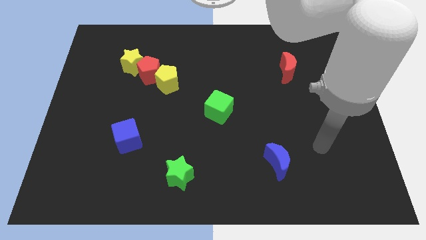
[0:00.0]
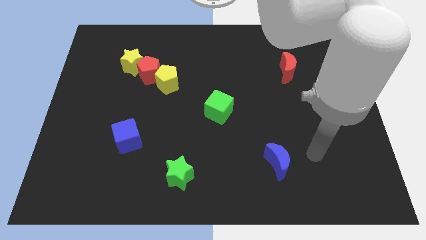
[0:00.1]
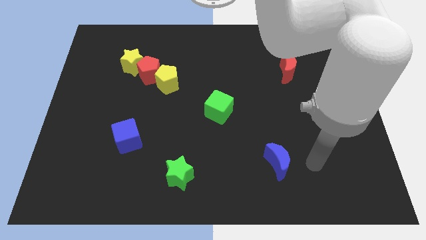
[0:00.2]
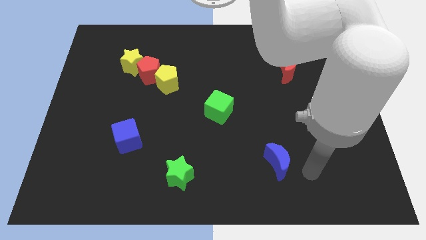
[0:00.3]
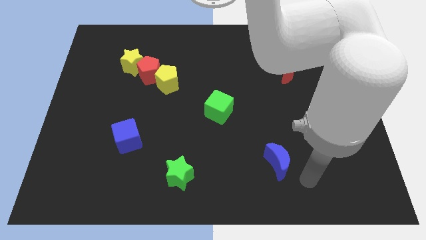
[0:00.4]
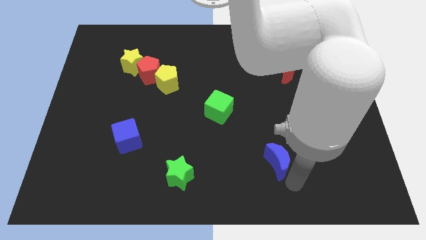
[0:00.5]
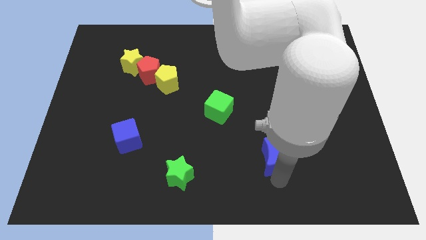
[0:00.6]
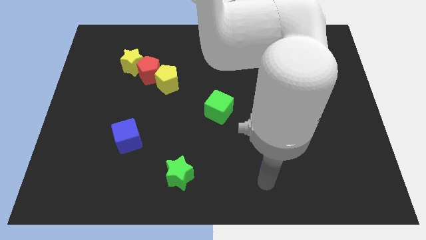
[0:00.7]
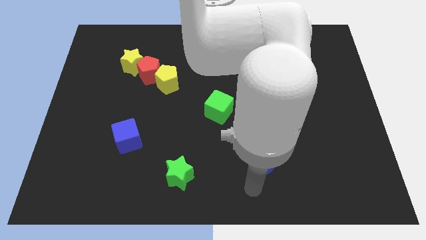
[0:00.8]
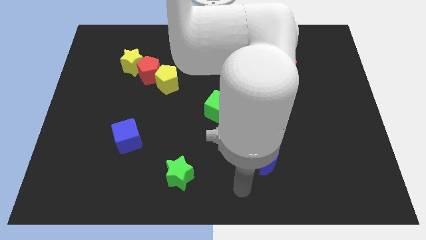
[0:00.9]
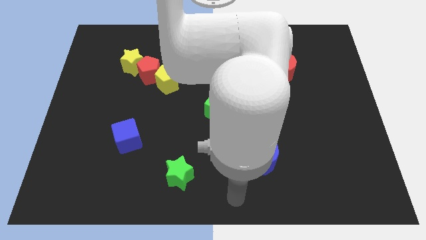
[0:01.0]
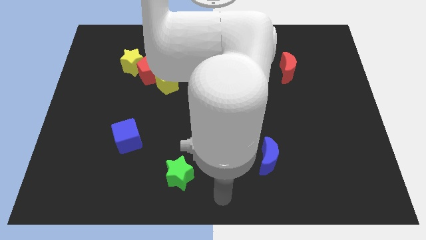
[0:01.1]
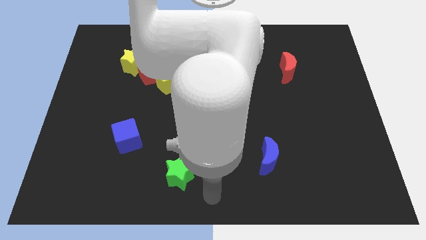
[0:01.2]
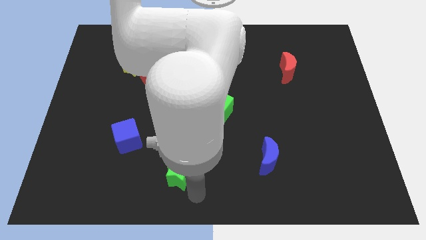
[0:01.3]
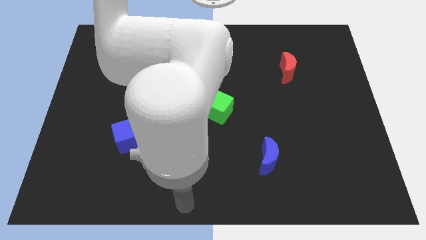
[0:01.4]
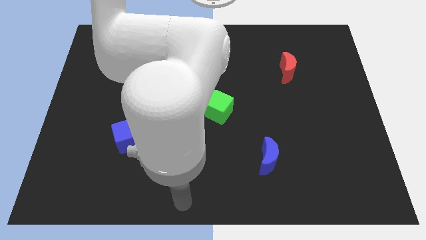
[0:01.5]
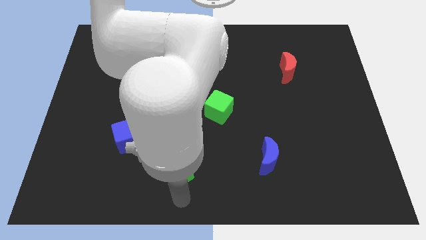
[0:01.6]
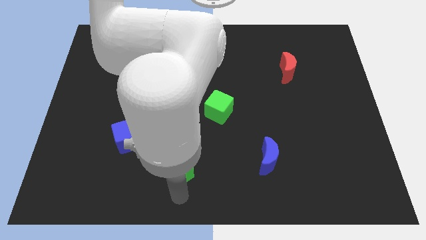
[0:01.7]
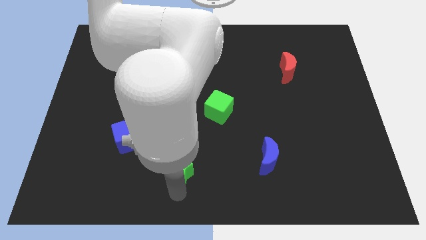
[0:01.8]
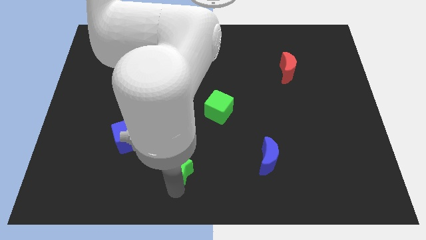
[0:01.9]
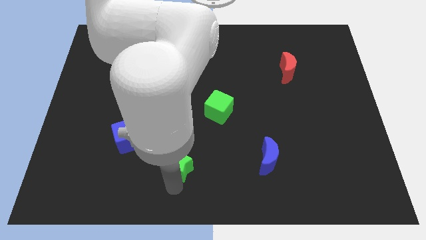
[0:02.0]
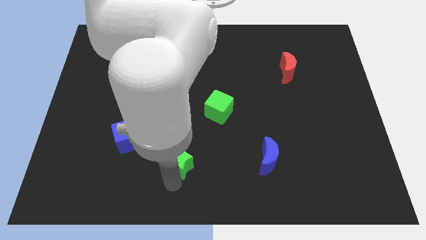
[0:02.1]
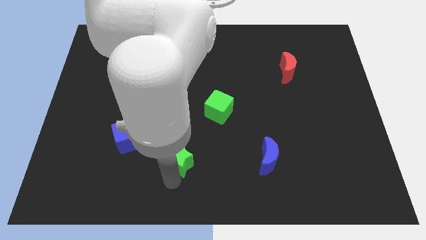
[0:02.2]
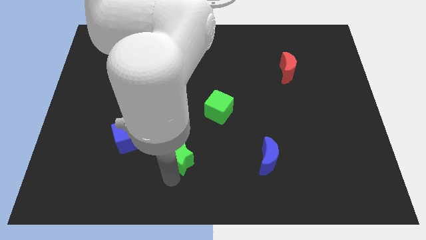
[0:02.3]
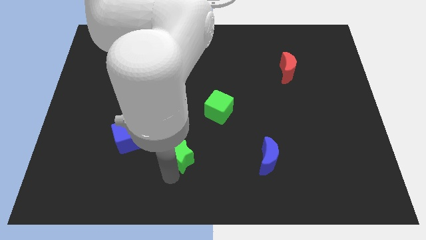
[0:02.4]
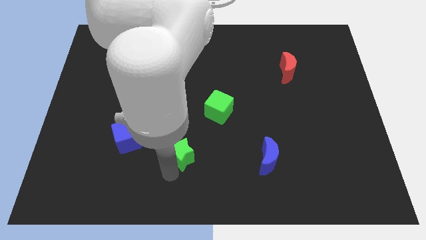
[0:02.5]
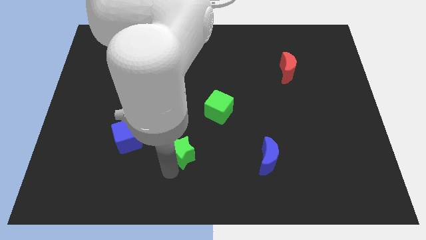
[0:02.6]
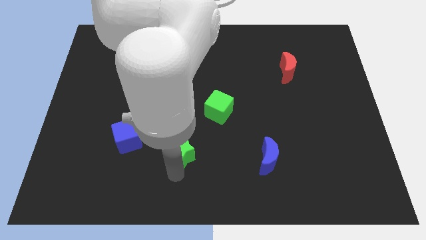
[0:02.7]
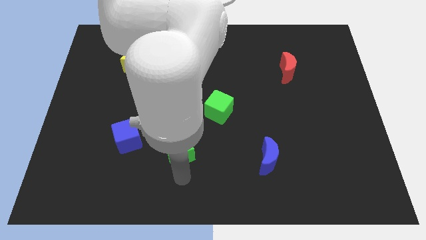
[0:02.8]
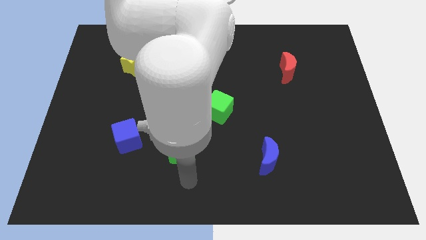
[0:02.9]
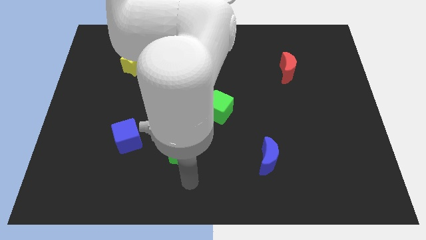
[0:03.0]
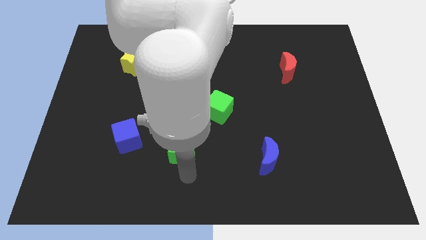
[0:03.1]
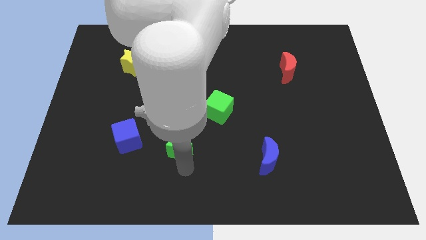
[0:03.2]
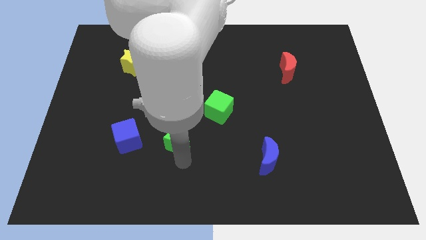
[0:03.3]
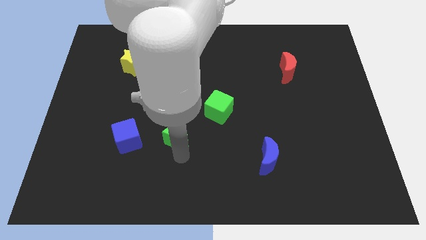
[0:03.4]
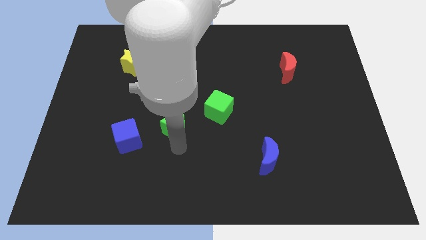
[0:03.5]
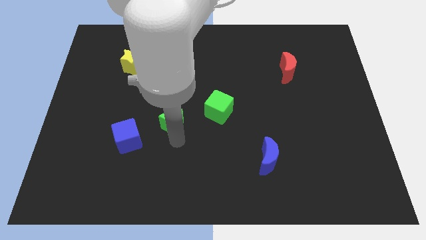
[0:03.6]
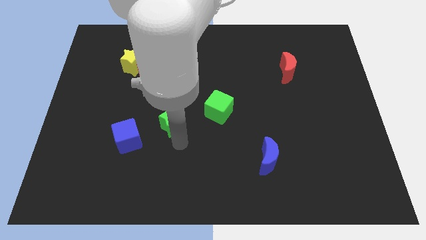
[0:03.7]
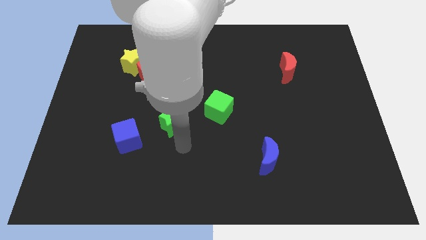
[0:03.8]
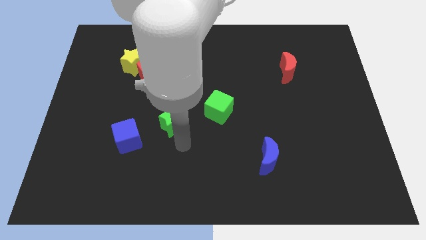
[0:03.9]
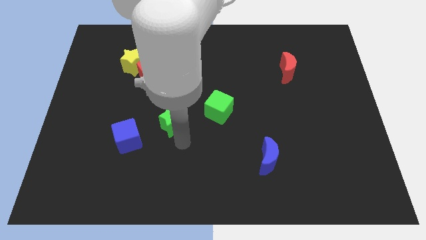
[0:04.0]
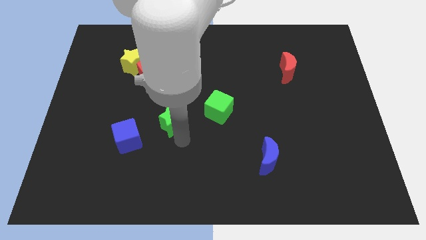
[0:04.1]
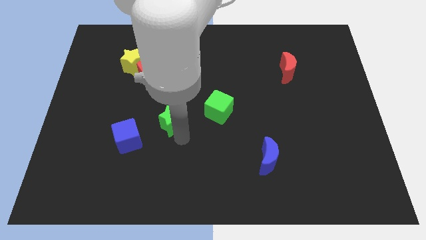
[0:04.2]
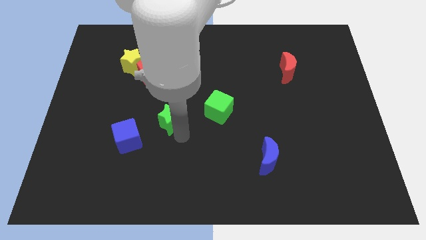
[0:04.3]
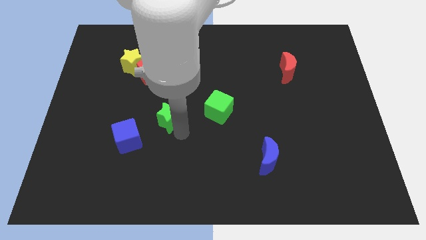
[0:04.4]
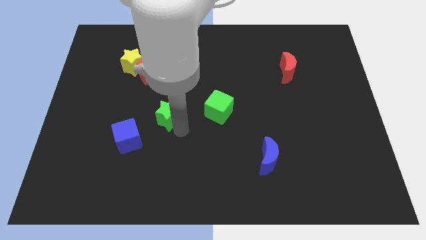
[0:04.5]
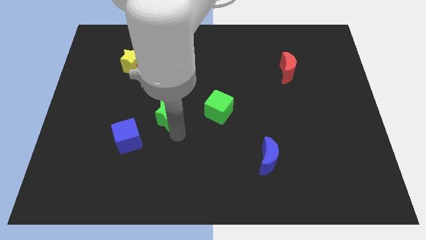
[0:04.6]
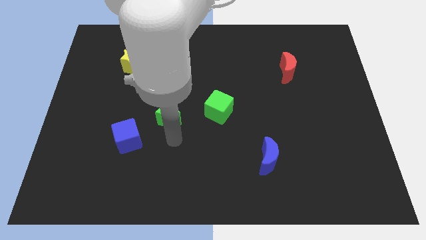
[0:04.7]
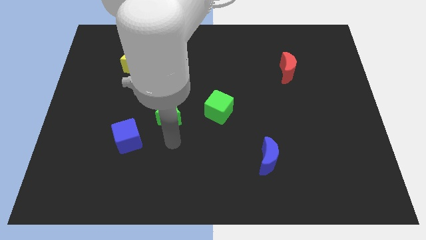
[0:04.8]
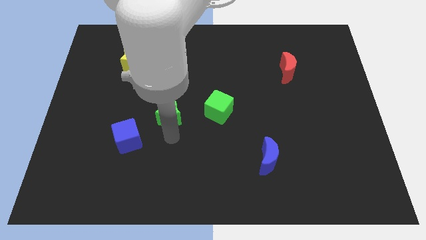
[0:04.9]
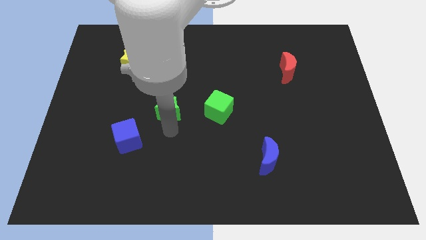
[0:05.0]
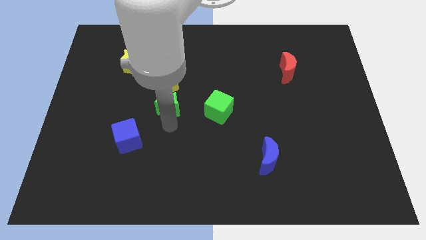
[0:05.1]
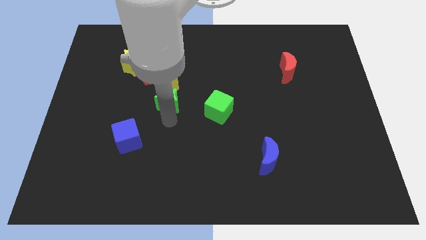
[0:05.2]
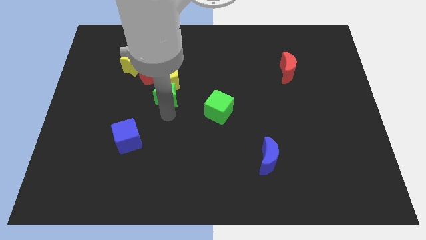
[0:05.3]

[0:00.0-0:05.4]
move the green star to the yellow pentagon
